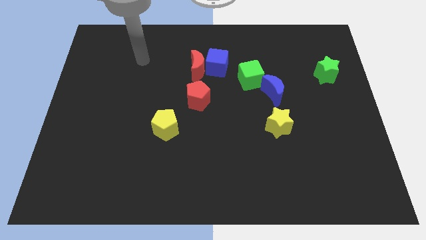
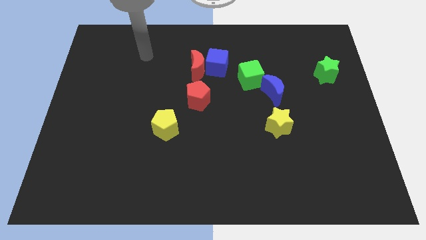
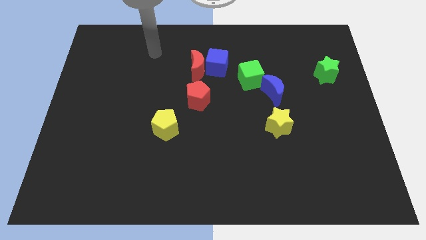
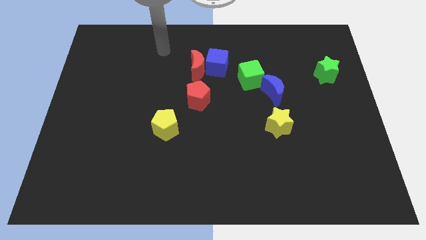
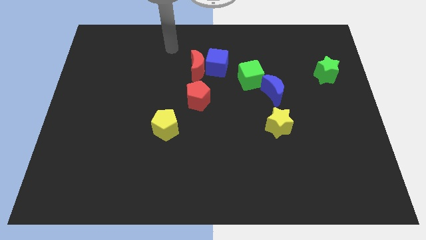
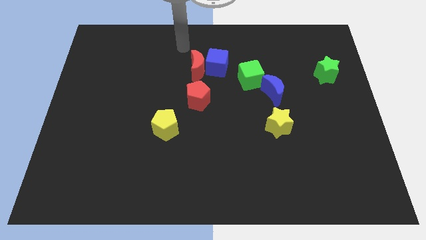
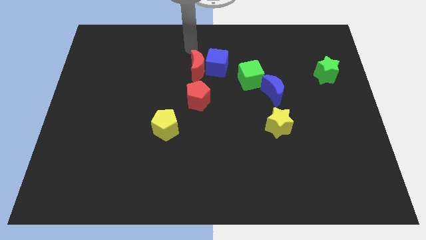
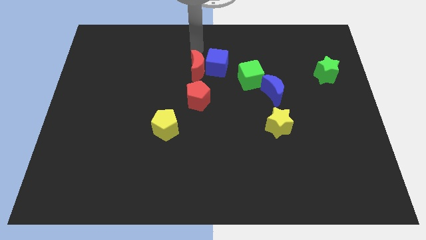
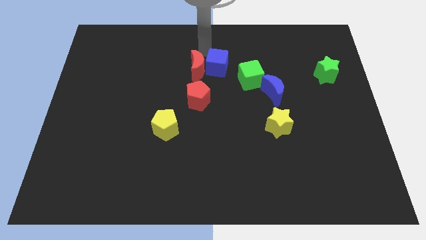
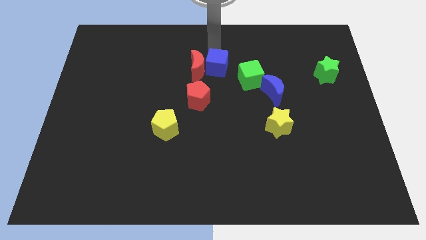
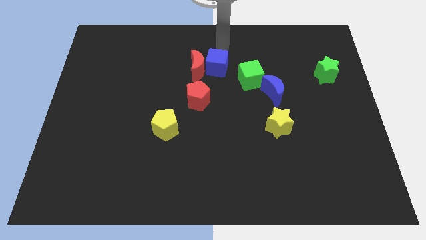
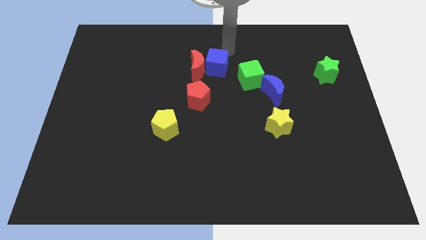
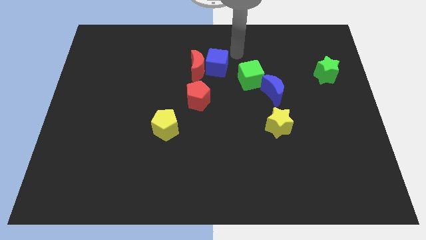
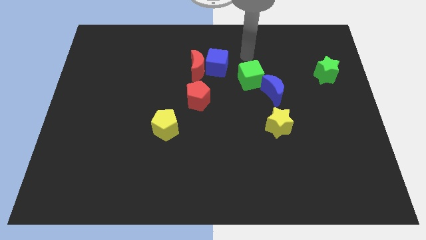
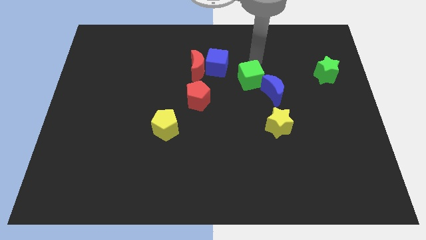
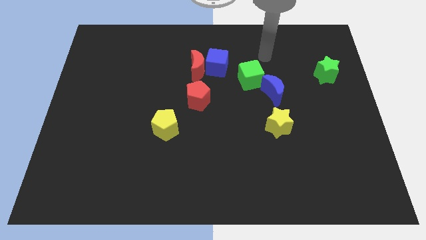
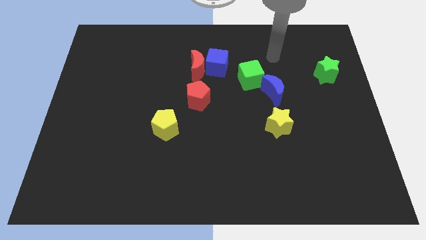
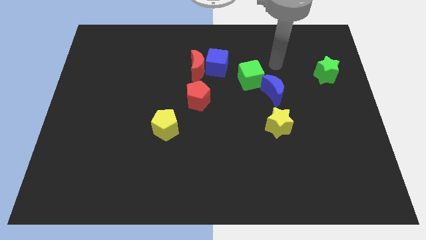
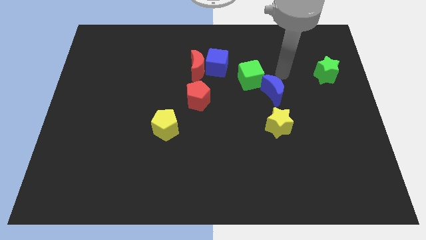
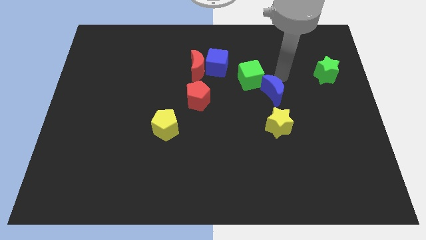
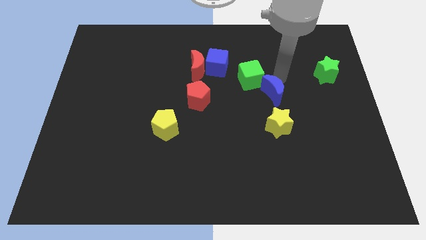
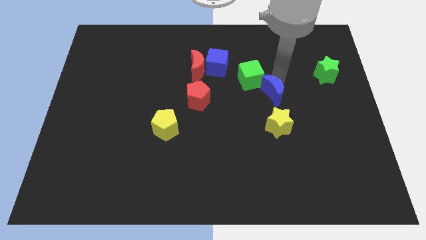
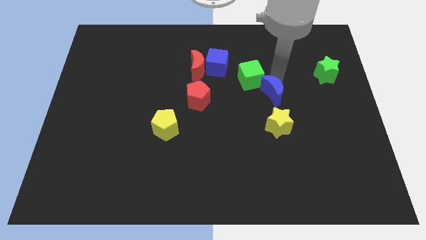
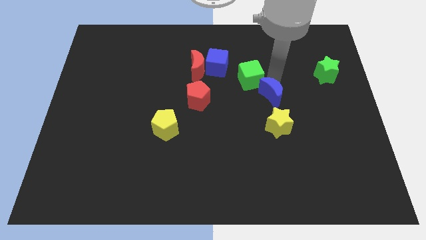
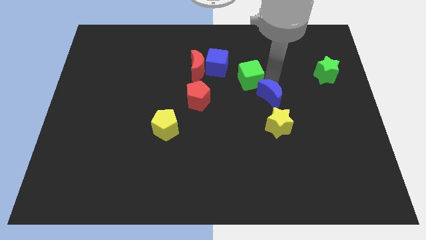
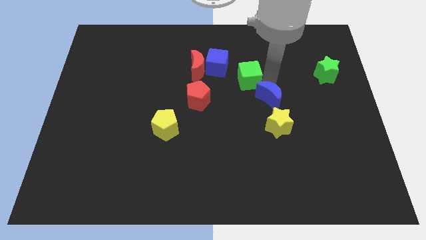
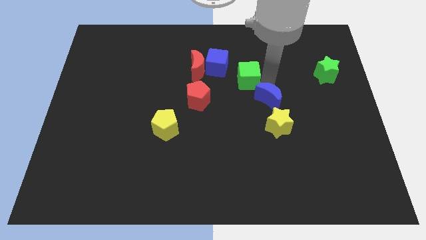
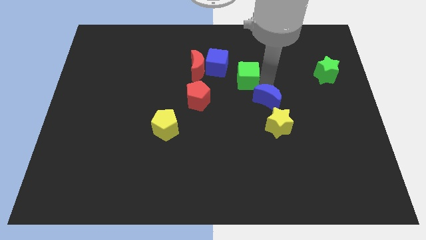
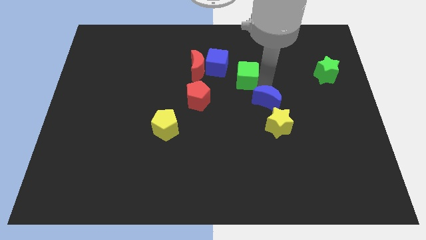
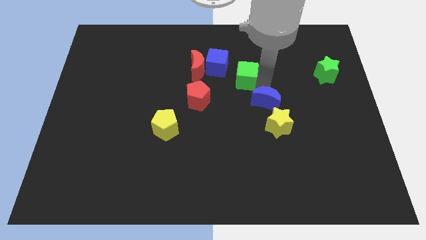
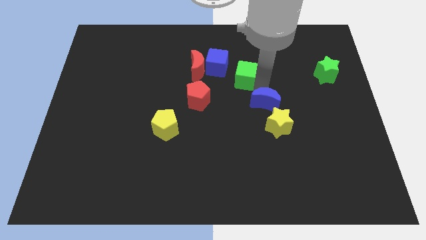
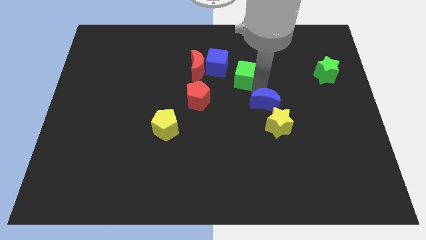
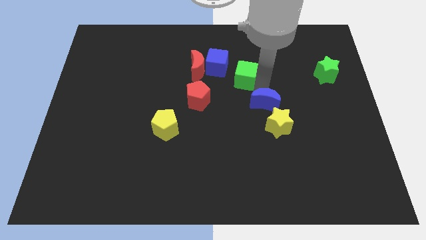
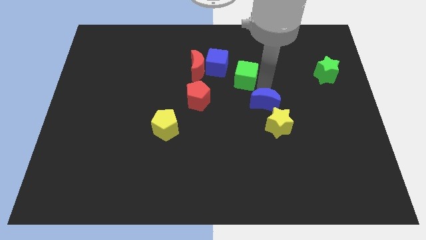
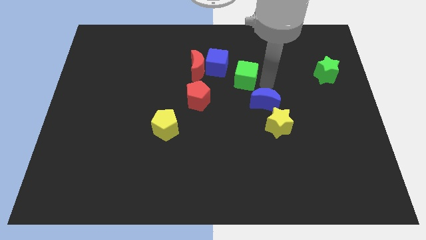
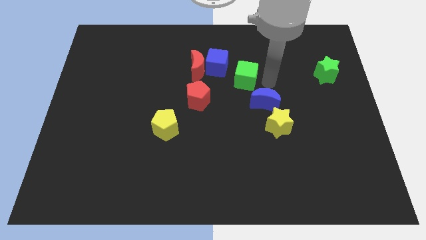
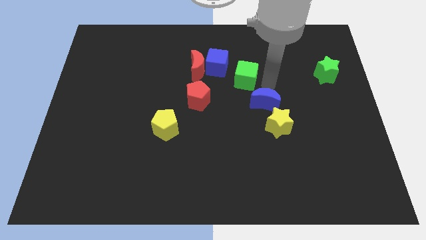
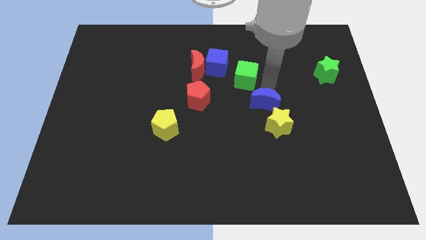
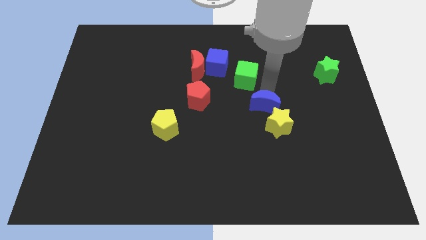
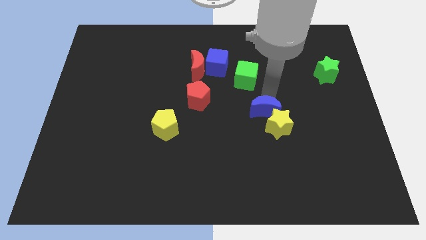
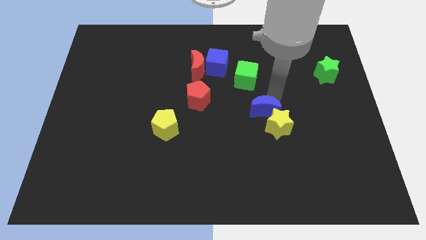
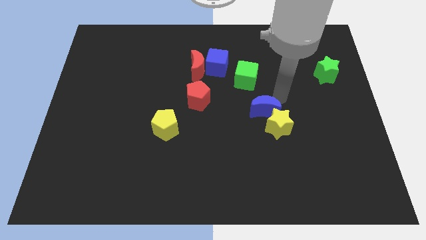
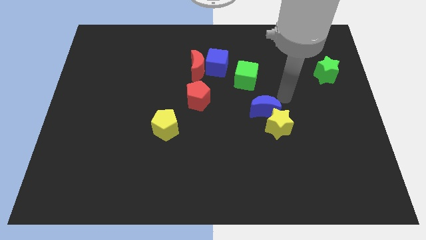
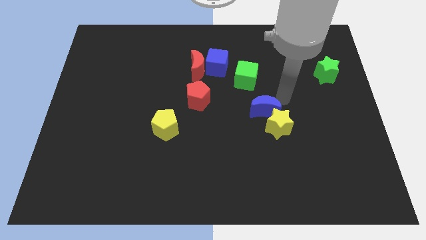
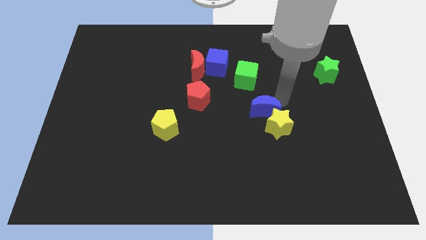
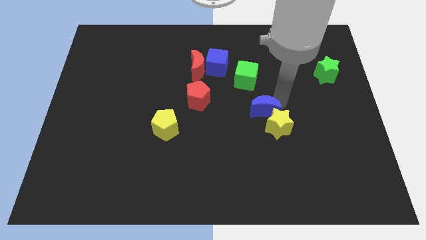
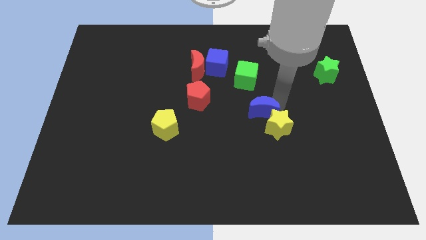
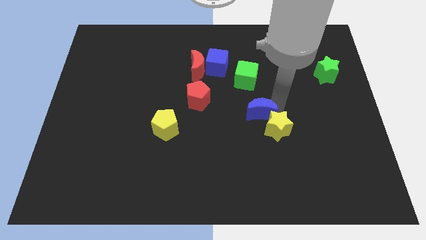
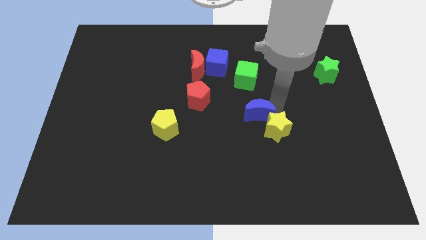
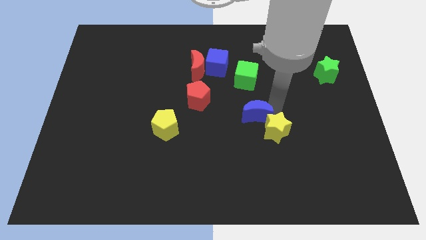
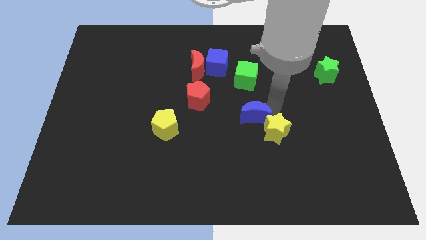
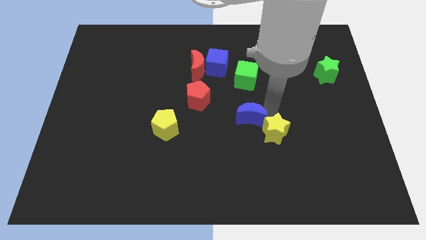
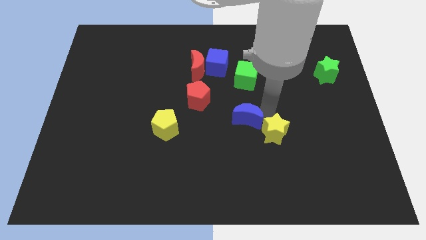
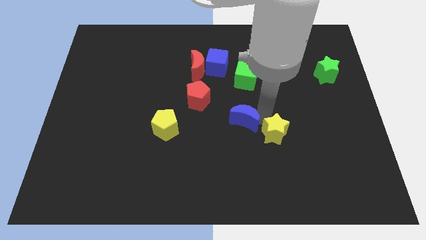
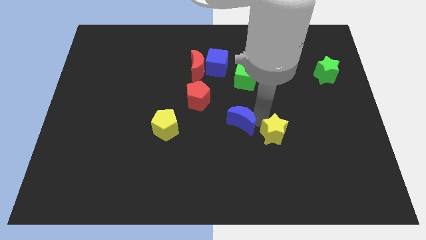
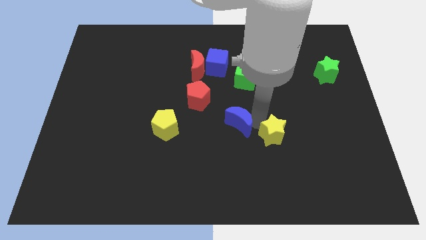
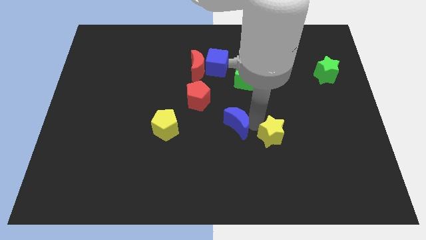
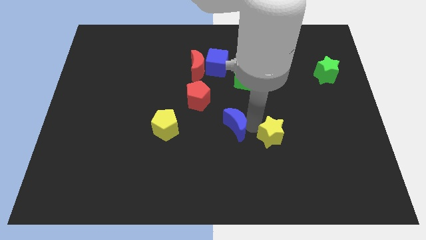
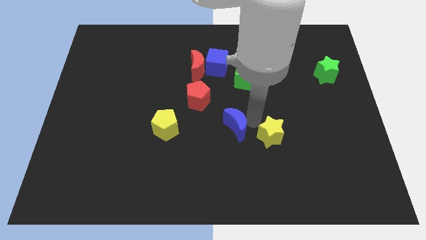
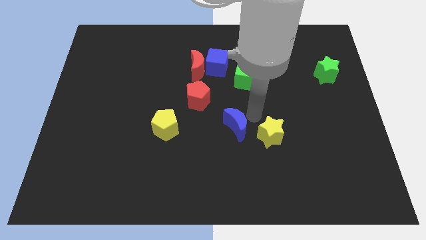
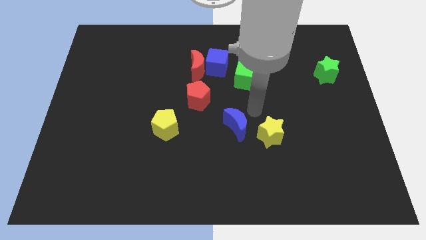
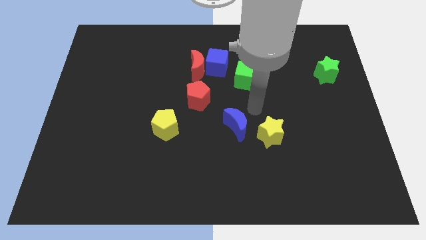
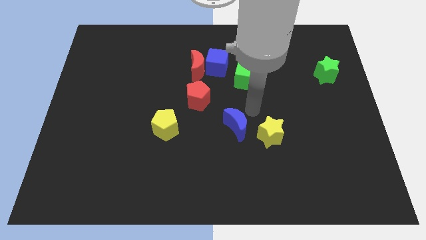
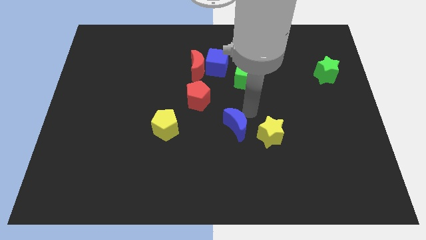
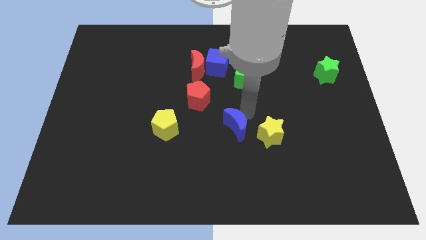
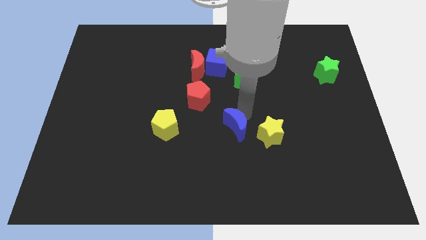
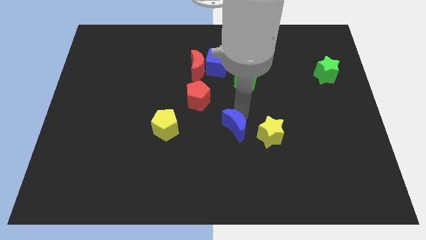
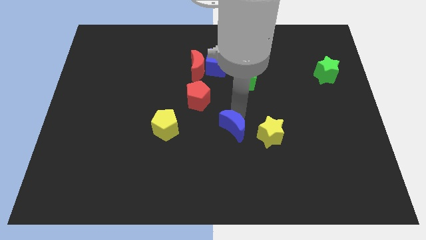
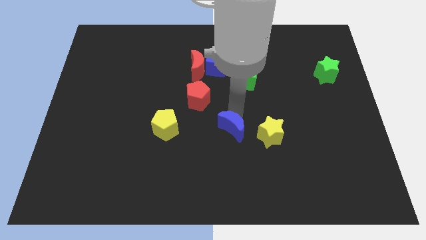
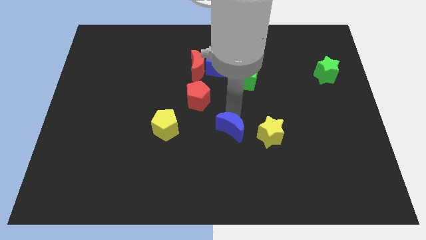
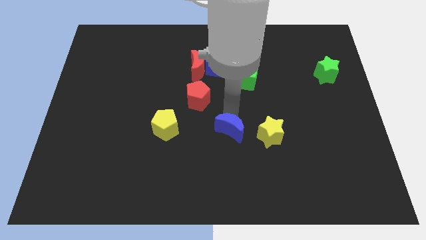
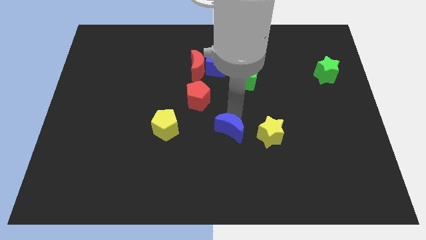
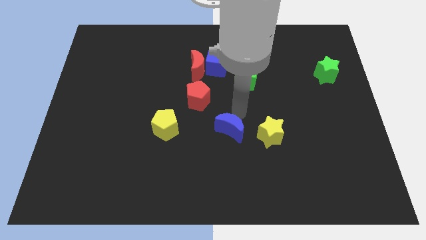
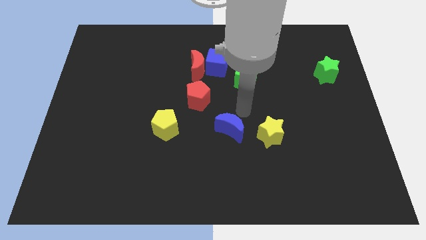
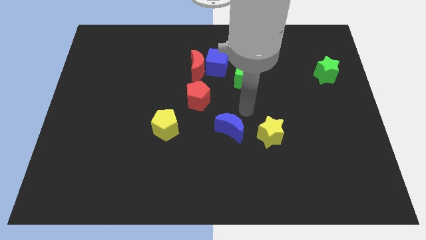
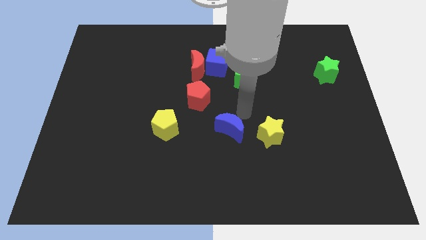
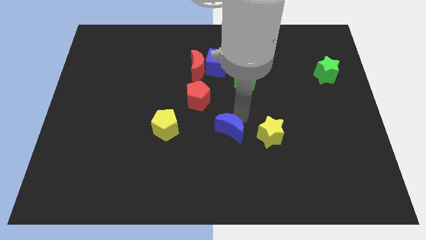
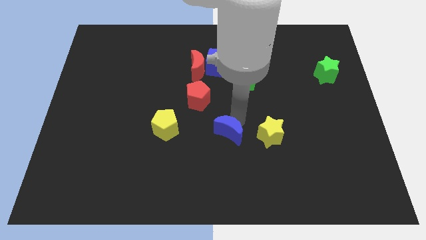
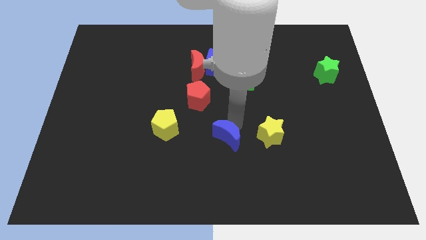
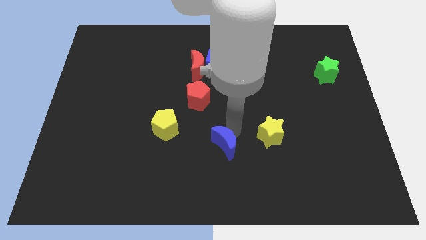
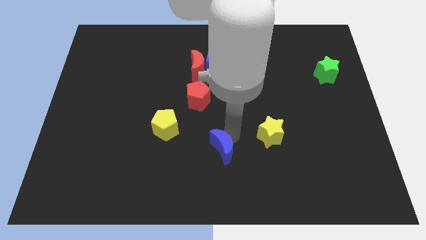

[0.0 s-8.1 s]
push the blue moon downwards and to the left diagonally
